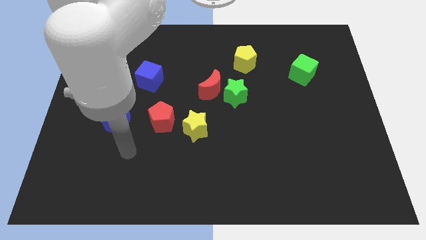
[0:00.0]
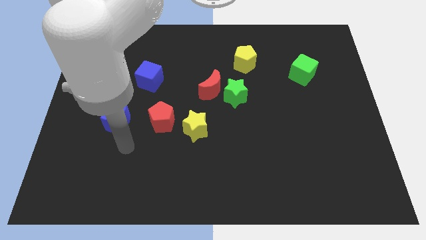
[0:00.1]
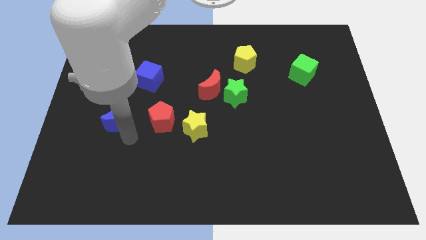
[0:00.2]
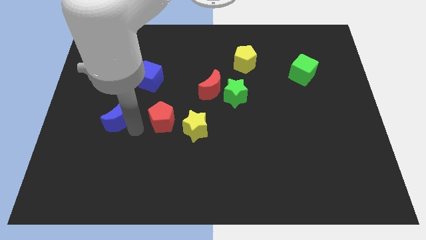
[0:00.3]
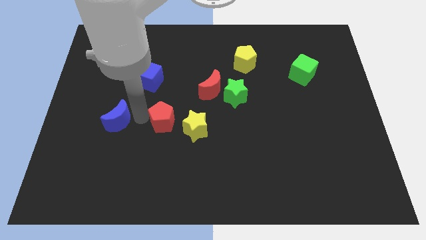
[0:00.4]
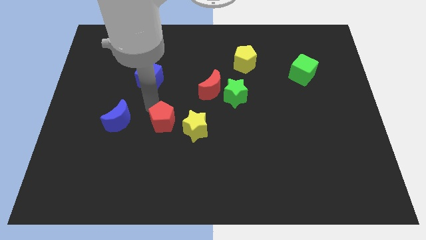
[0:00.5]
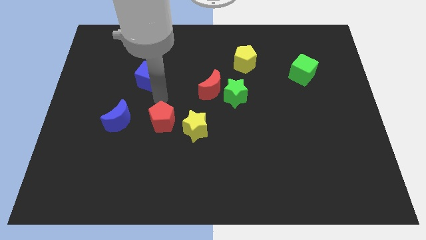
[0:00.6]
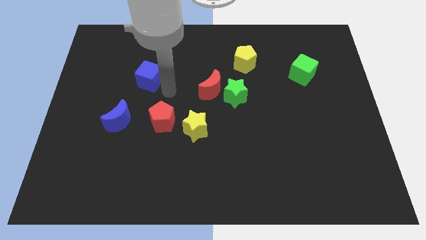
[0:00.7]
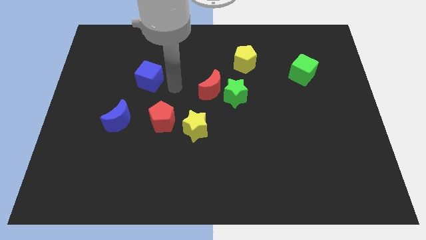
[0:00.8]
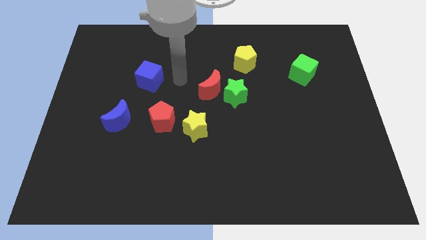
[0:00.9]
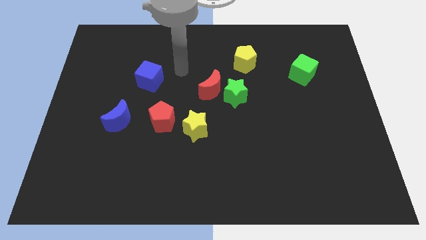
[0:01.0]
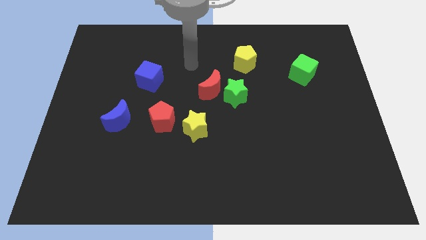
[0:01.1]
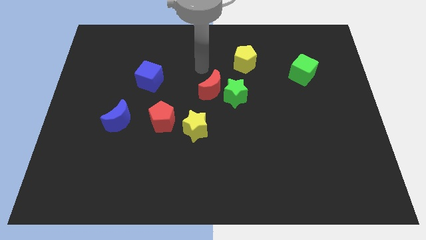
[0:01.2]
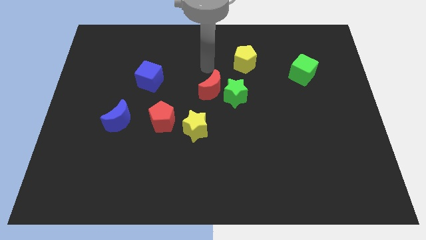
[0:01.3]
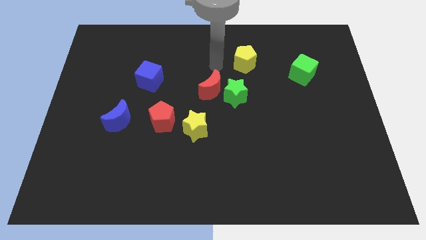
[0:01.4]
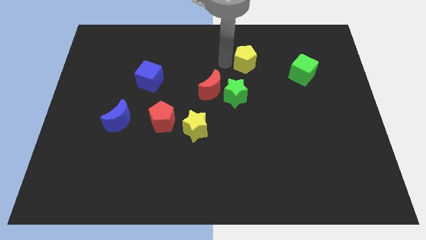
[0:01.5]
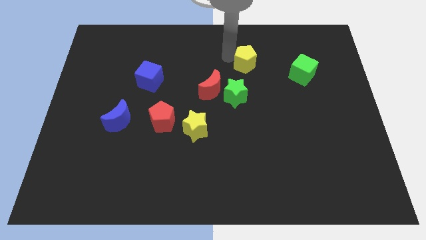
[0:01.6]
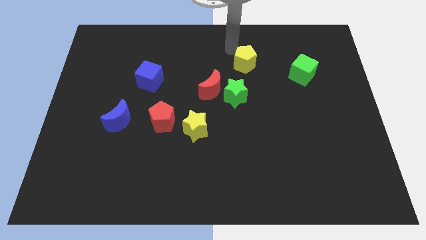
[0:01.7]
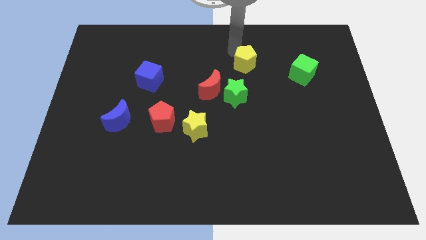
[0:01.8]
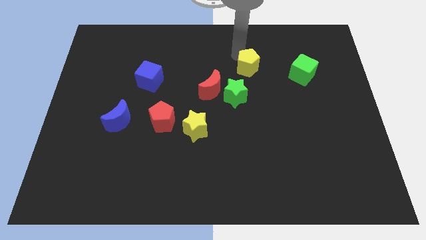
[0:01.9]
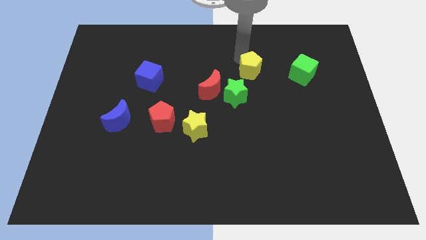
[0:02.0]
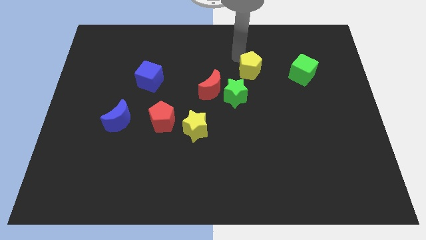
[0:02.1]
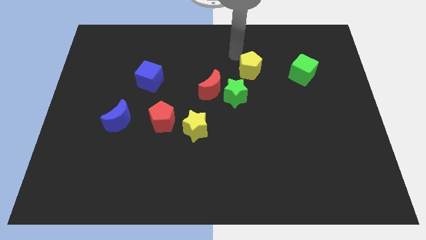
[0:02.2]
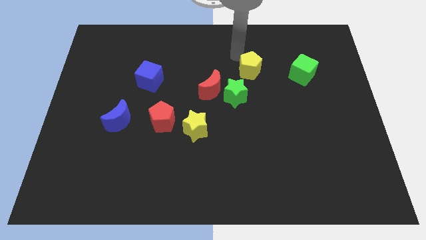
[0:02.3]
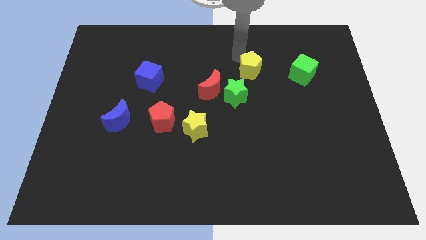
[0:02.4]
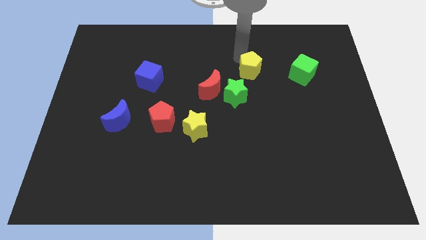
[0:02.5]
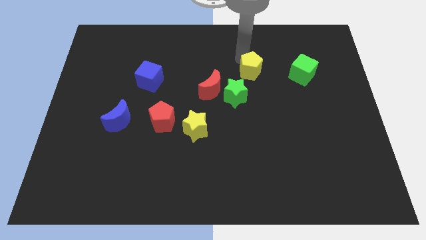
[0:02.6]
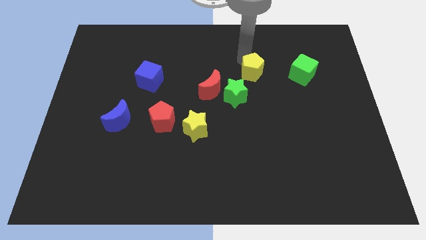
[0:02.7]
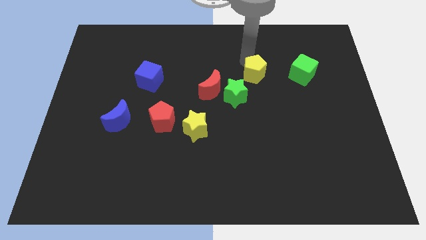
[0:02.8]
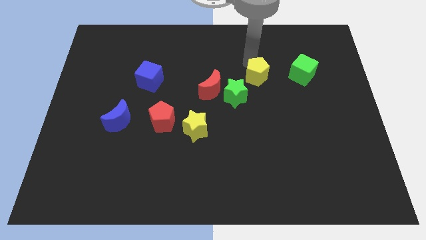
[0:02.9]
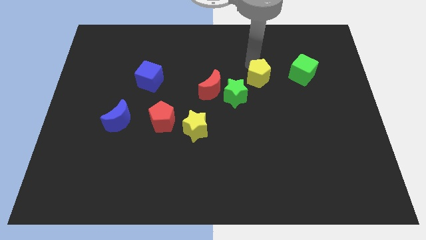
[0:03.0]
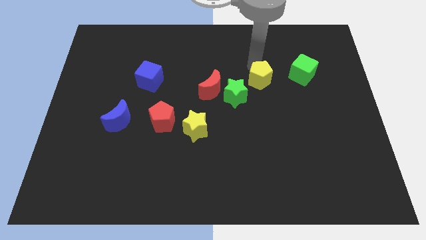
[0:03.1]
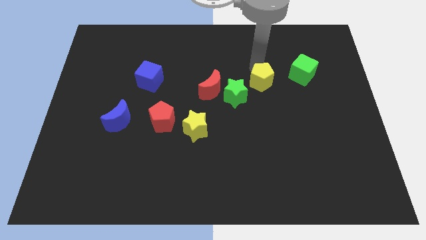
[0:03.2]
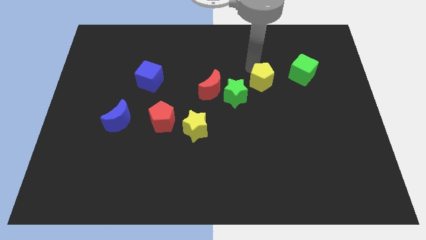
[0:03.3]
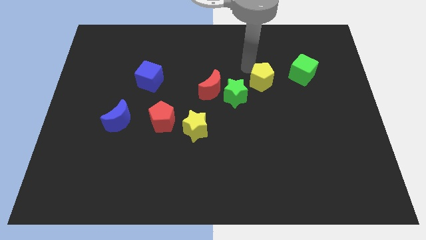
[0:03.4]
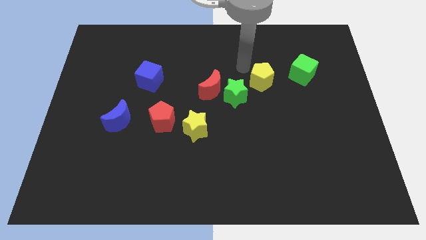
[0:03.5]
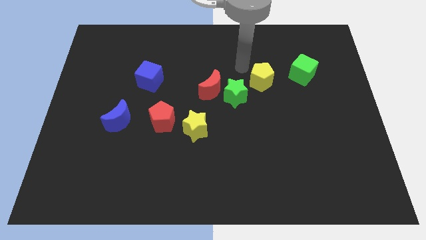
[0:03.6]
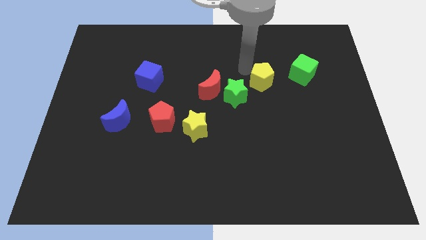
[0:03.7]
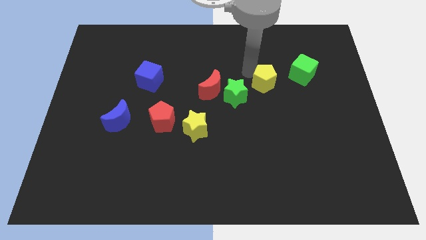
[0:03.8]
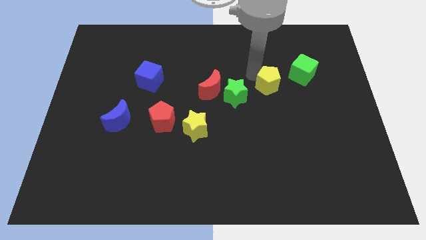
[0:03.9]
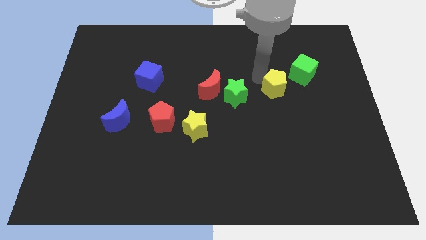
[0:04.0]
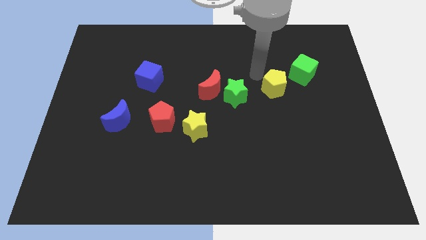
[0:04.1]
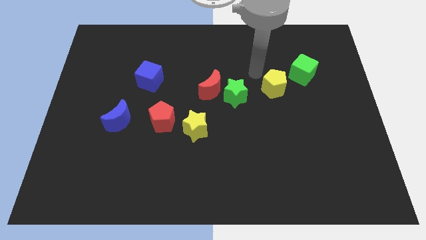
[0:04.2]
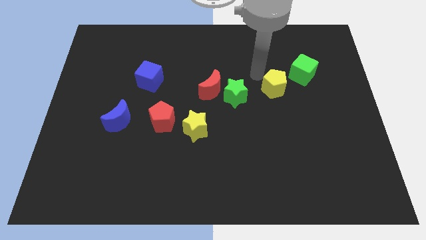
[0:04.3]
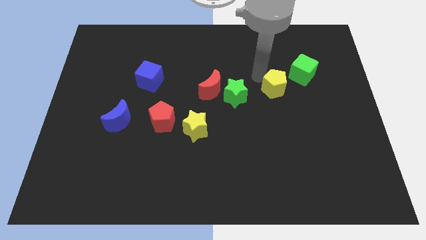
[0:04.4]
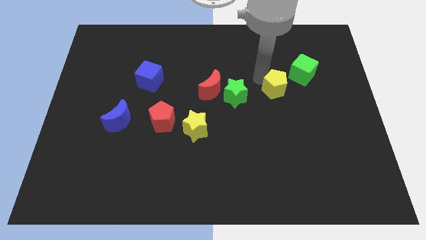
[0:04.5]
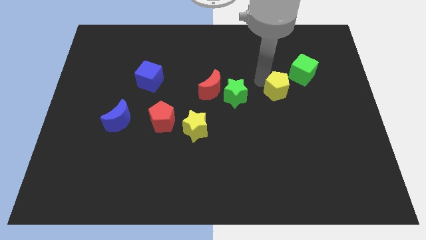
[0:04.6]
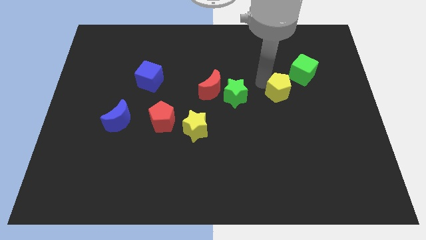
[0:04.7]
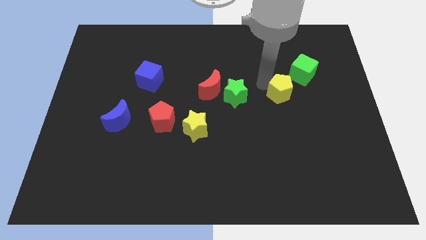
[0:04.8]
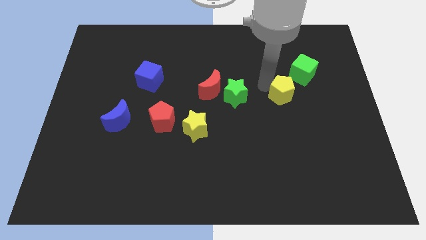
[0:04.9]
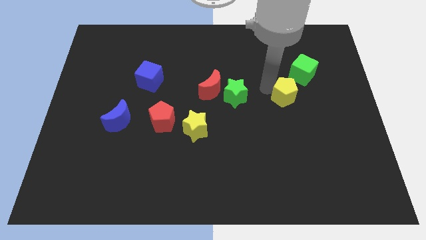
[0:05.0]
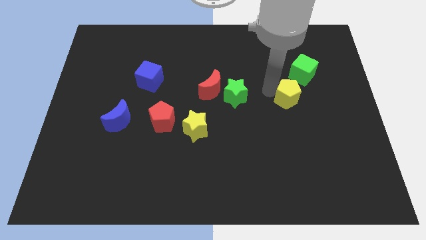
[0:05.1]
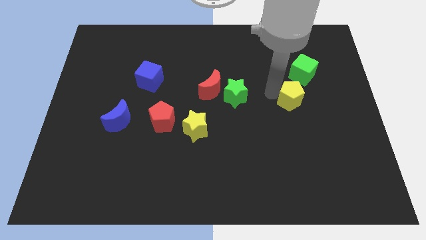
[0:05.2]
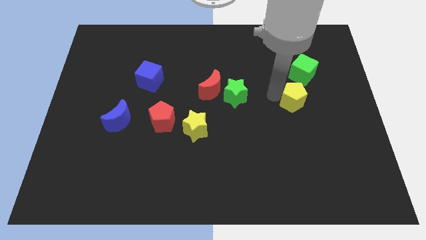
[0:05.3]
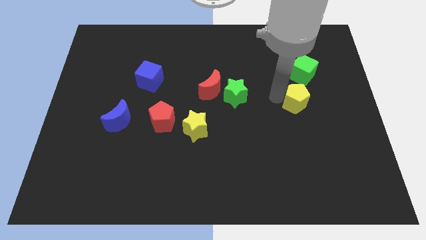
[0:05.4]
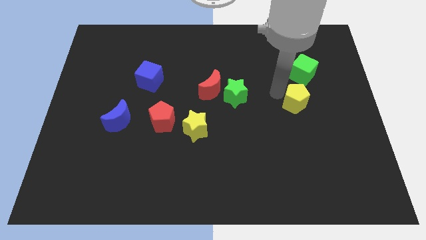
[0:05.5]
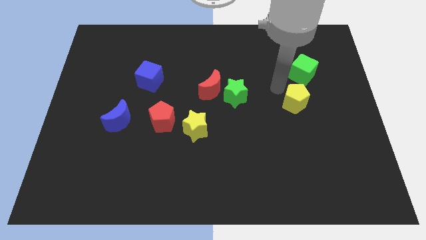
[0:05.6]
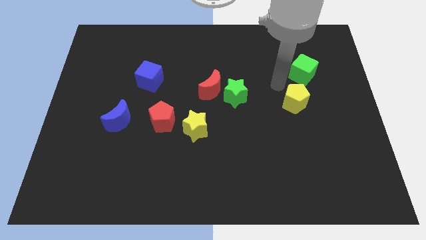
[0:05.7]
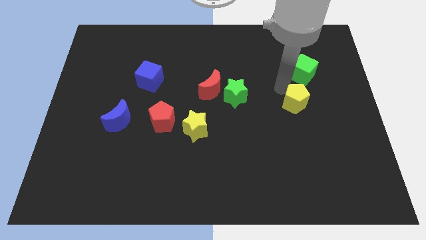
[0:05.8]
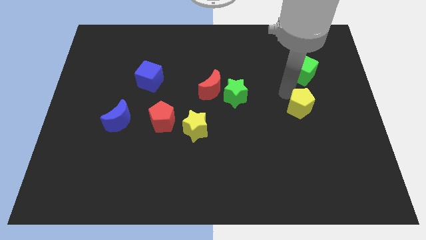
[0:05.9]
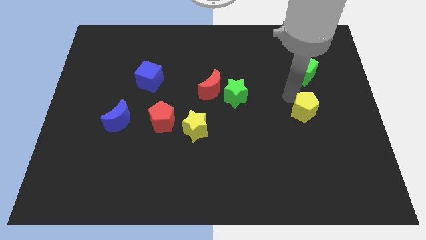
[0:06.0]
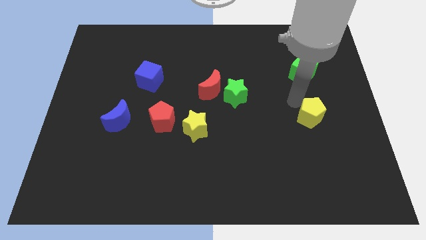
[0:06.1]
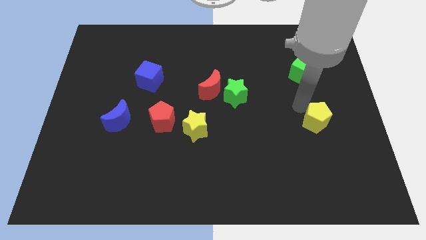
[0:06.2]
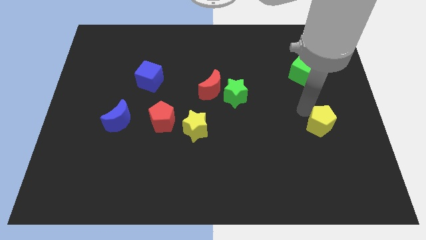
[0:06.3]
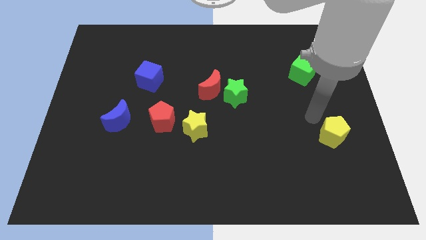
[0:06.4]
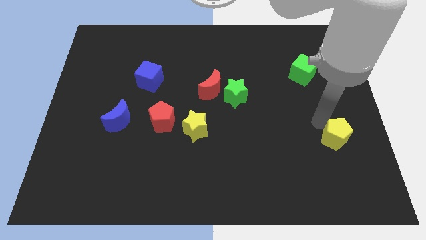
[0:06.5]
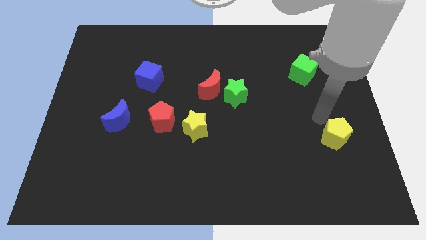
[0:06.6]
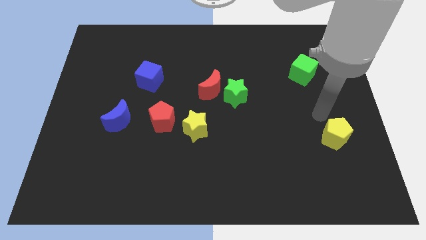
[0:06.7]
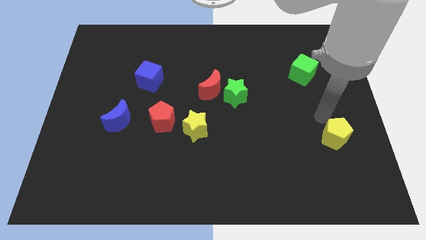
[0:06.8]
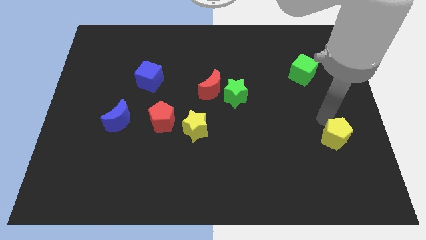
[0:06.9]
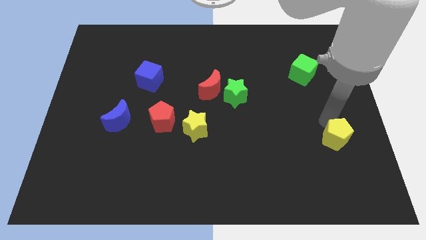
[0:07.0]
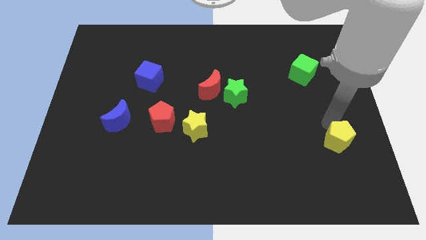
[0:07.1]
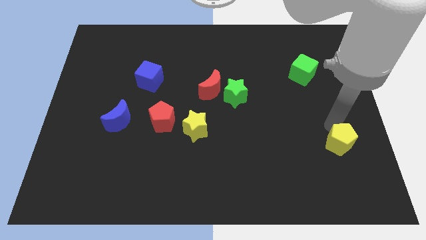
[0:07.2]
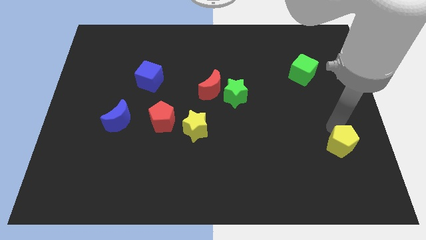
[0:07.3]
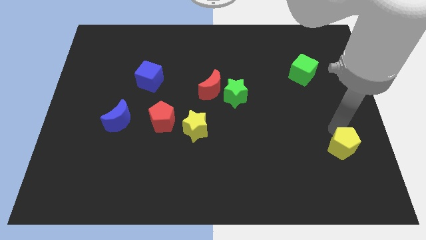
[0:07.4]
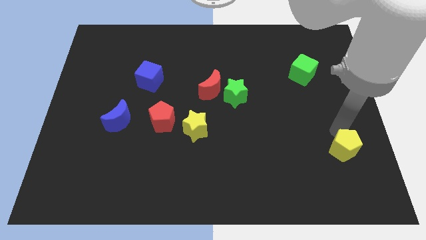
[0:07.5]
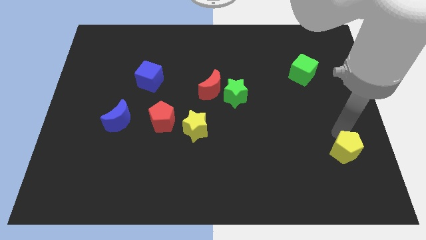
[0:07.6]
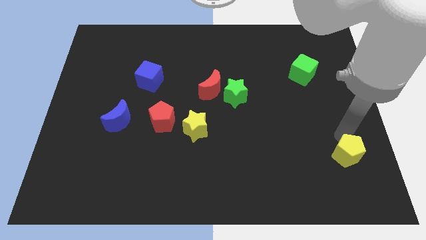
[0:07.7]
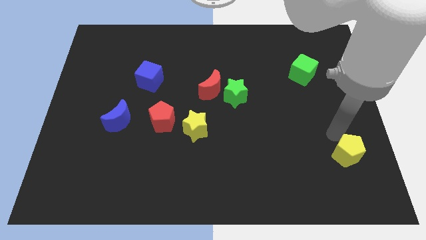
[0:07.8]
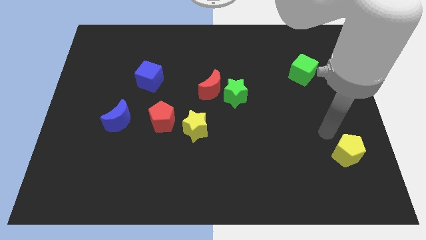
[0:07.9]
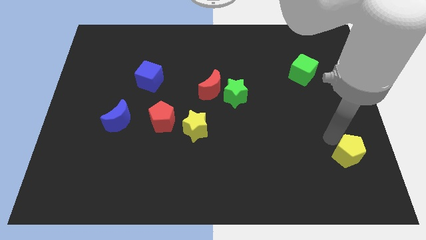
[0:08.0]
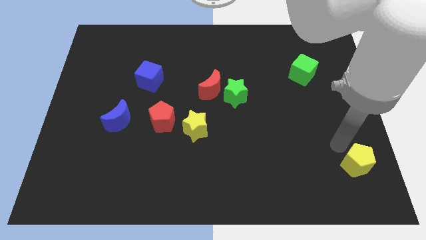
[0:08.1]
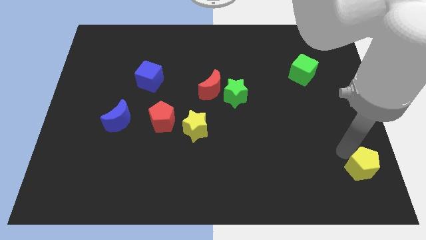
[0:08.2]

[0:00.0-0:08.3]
move the yellow pentagon to the bottom right of the board
